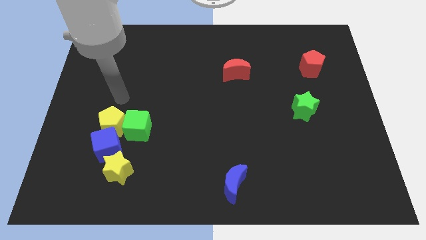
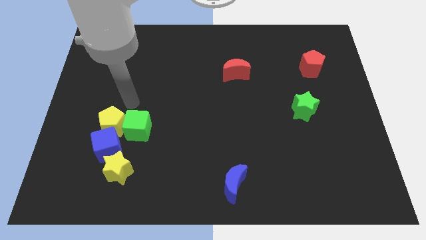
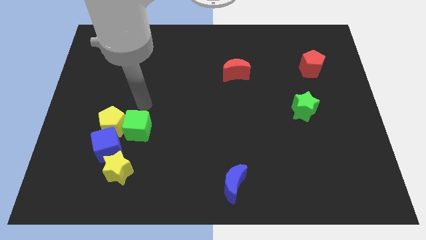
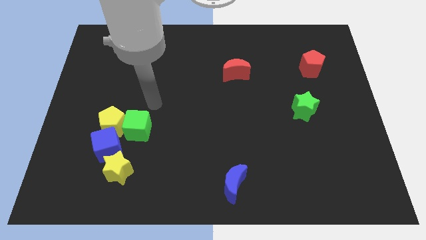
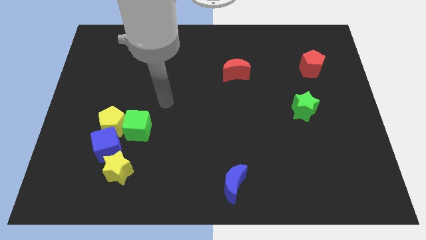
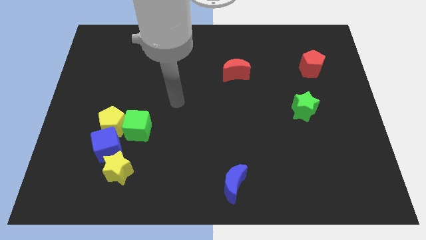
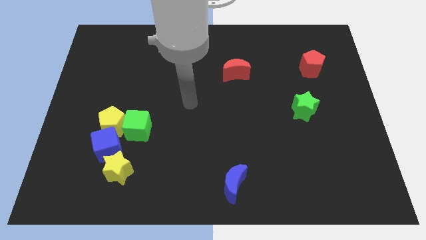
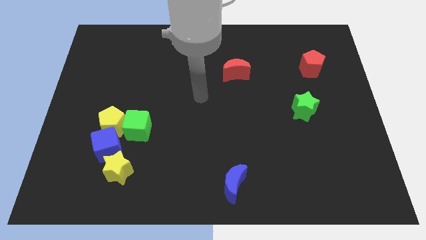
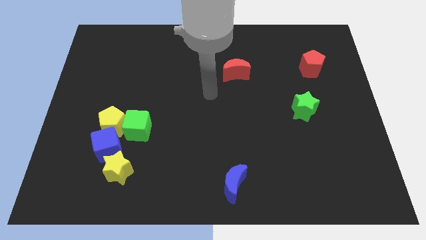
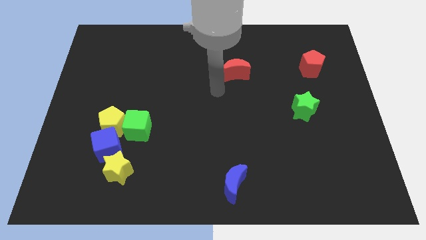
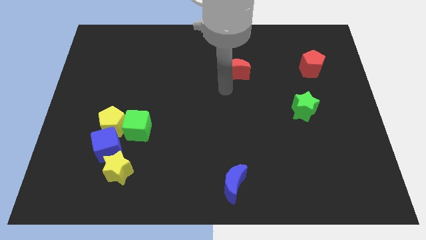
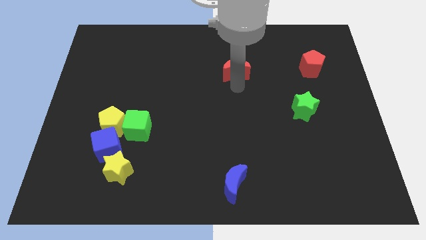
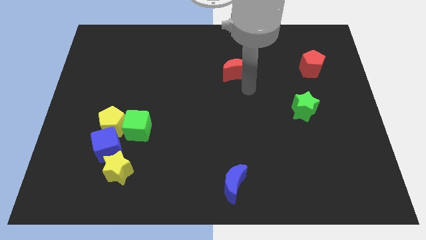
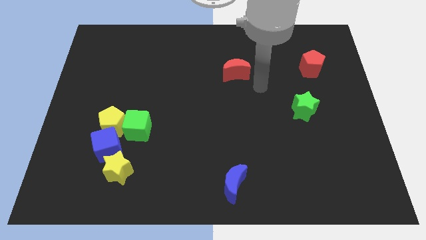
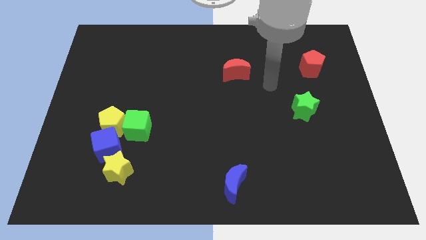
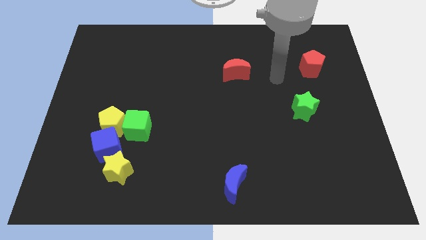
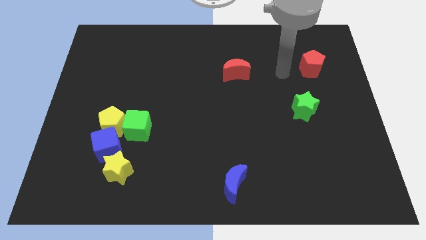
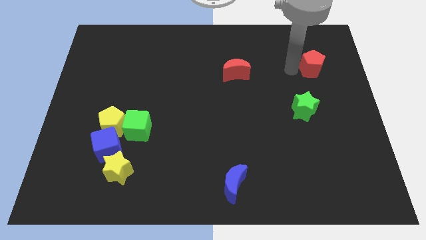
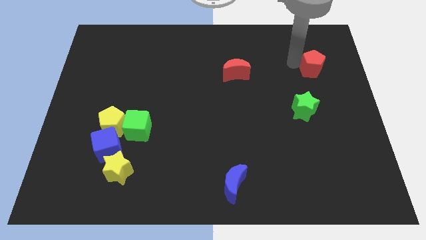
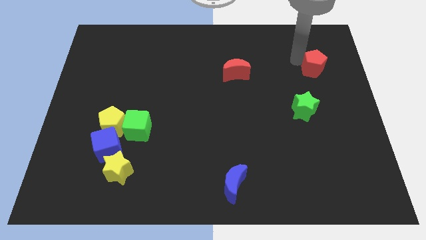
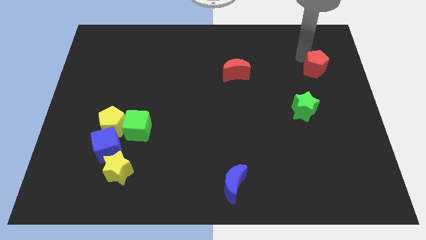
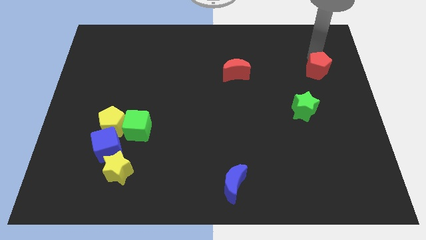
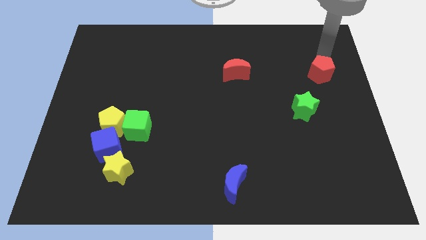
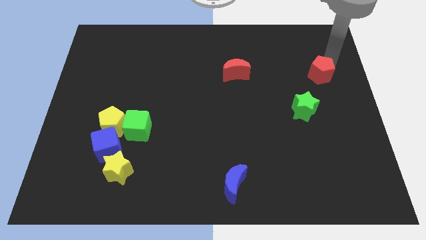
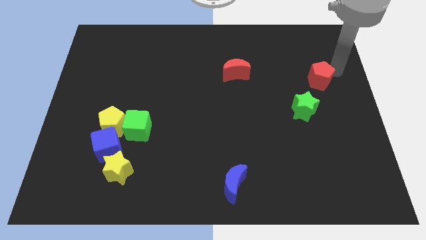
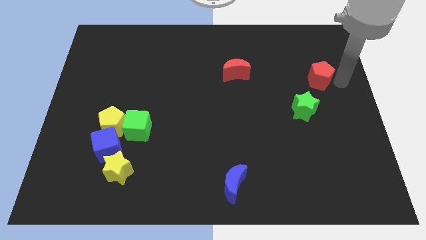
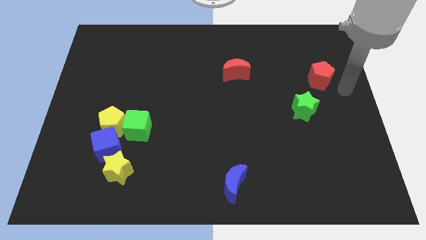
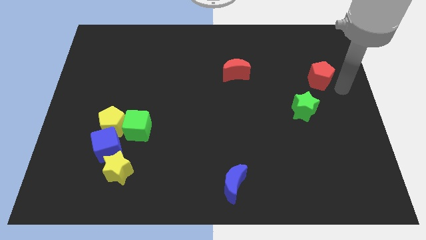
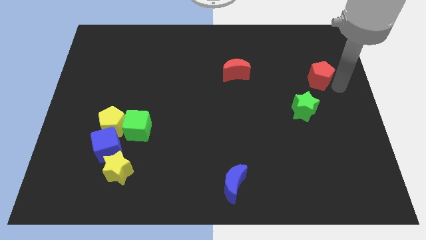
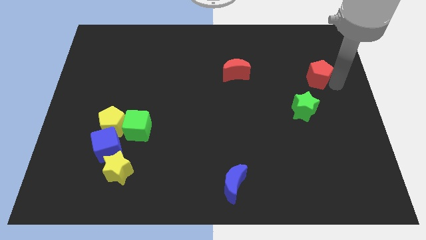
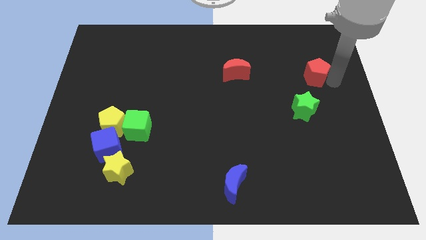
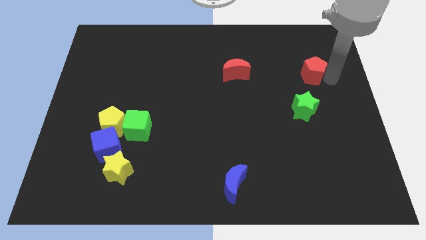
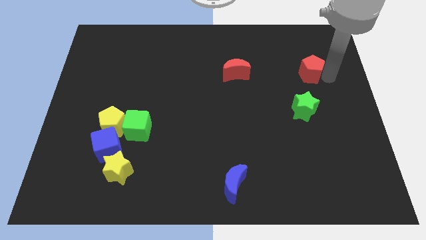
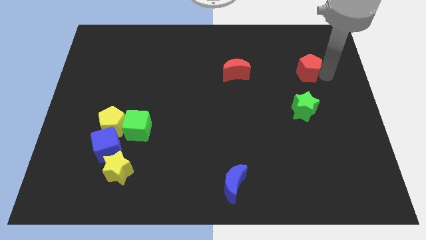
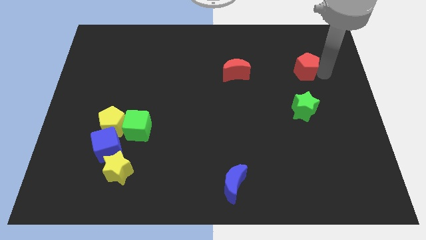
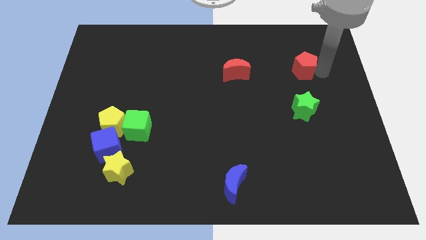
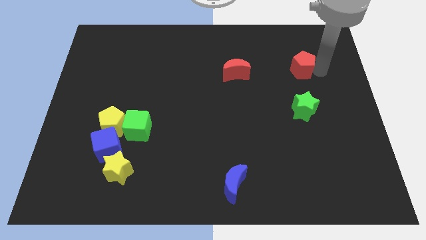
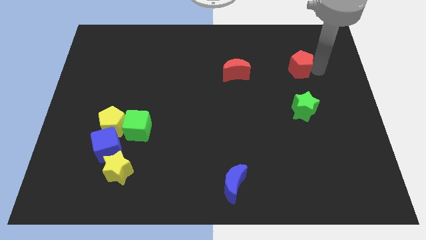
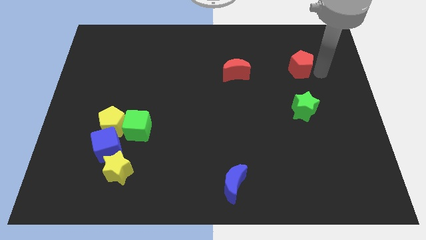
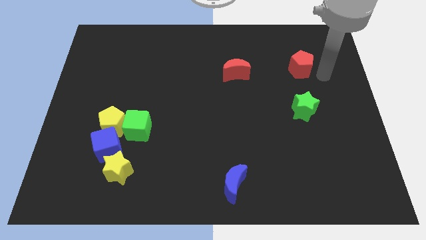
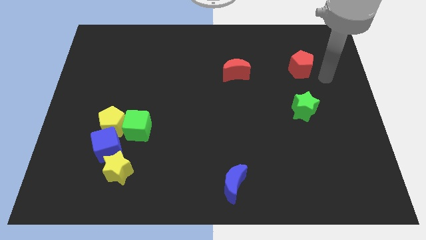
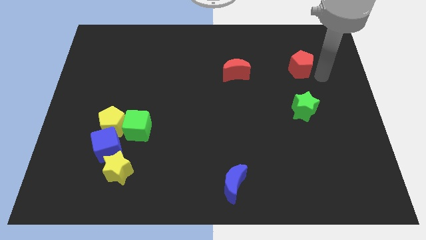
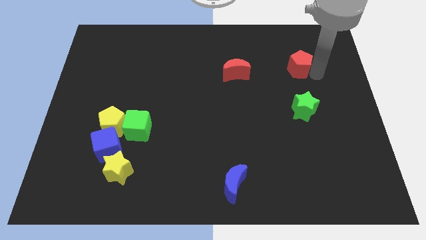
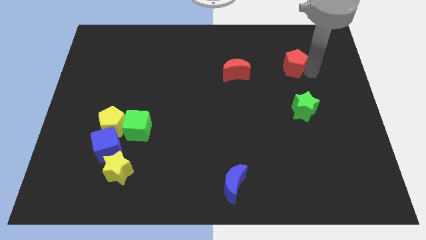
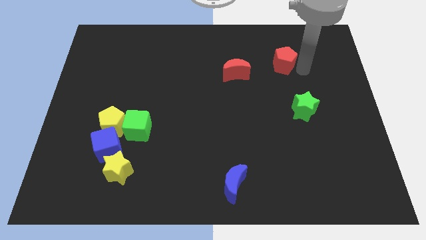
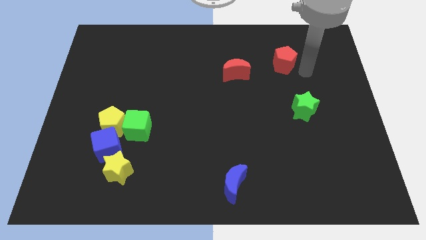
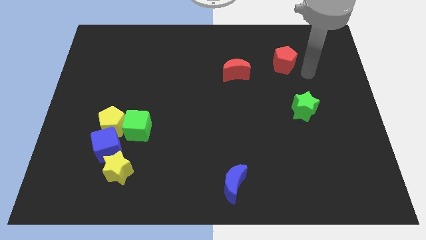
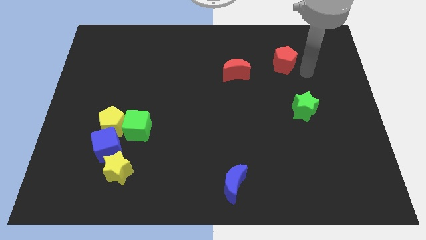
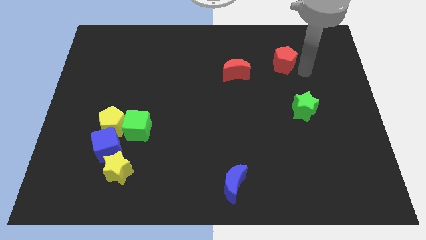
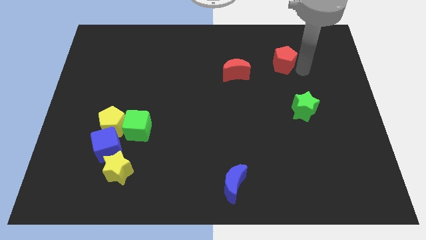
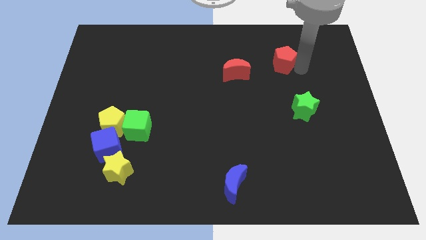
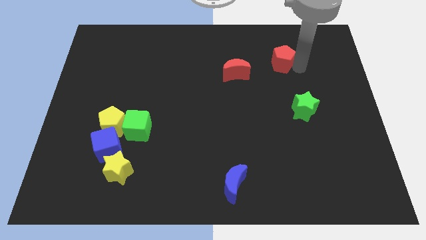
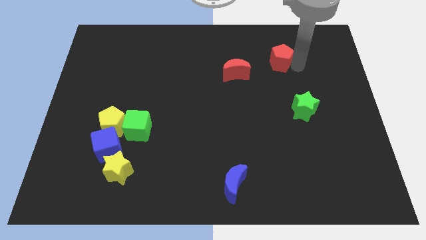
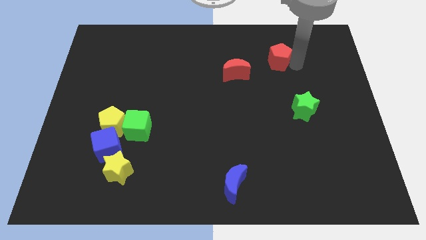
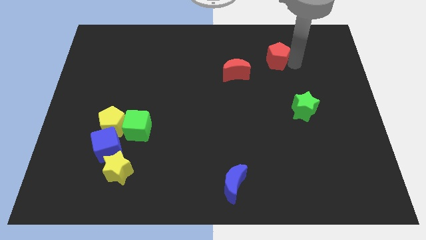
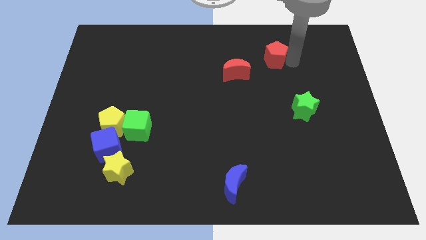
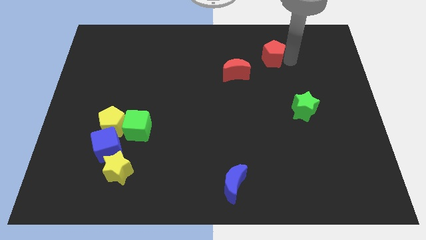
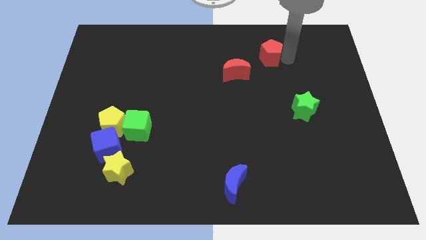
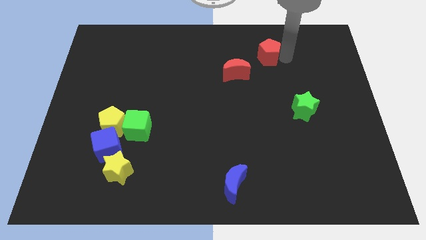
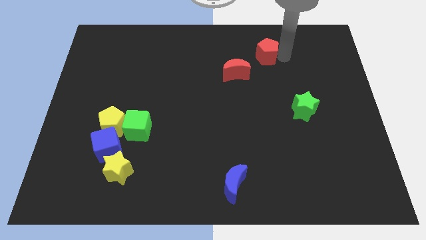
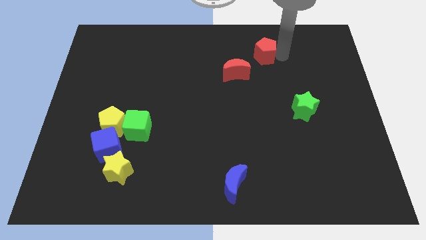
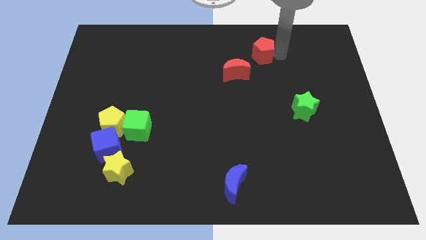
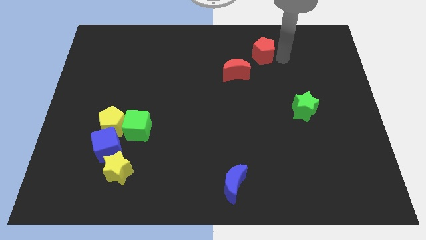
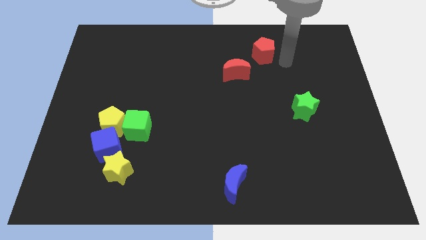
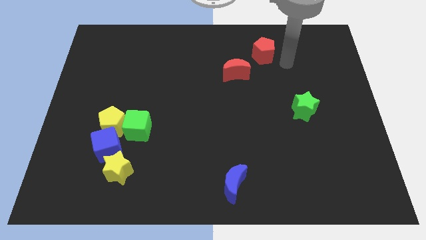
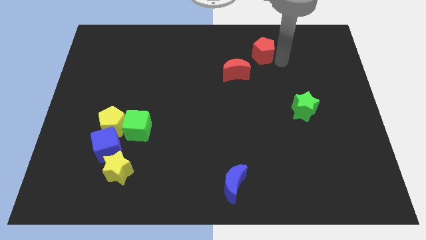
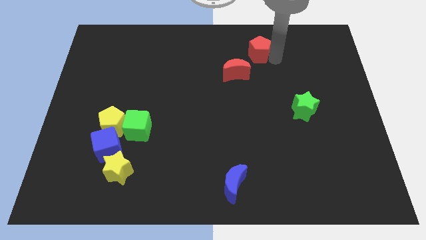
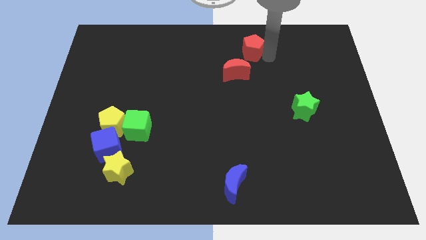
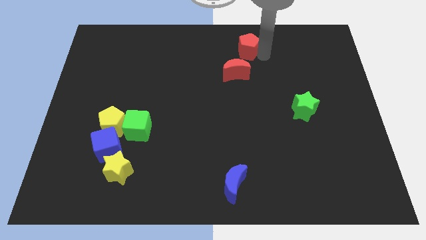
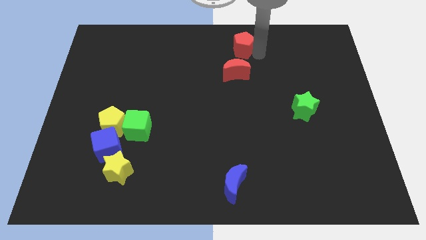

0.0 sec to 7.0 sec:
slide the red pentagon to the top
